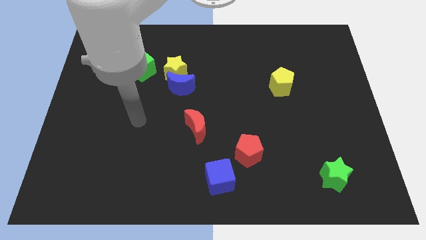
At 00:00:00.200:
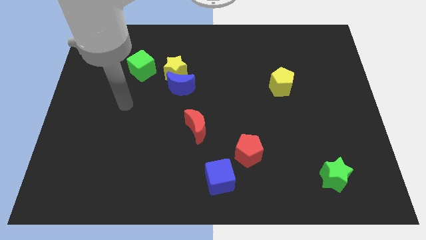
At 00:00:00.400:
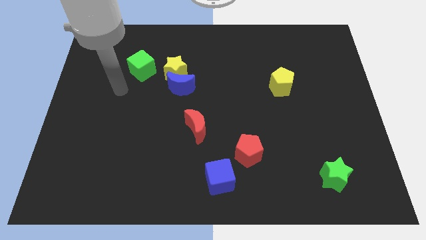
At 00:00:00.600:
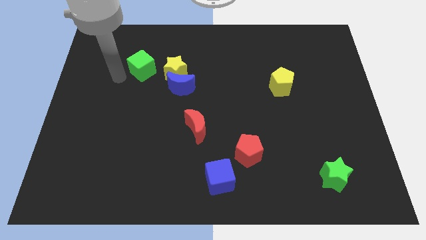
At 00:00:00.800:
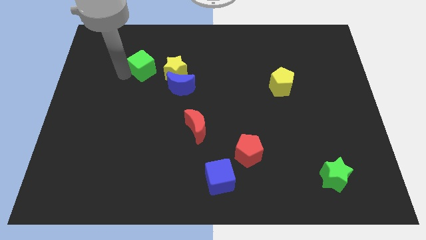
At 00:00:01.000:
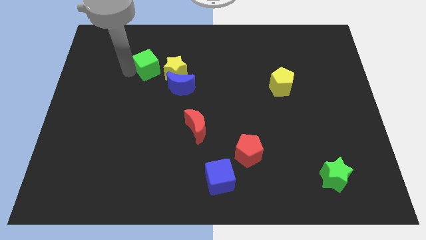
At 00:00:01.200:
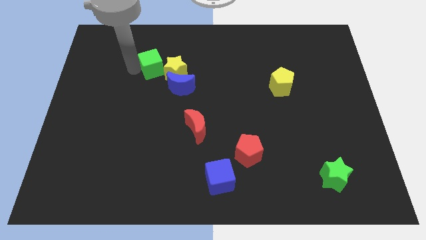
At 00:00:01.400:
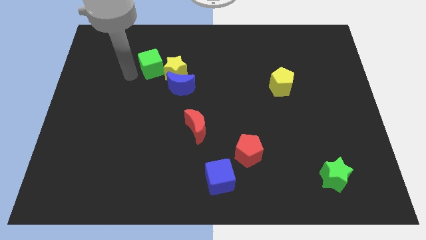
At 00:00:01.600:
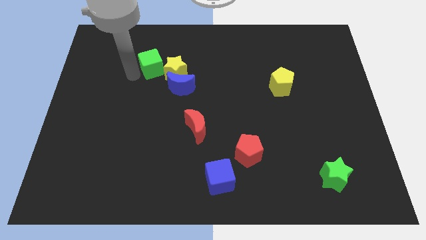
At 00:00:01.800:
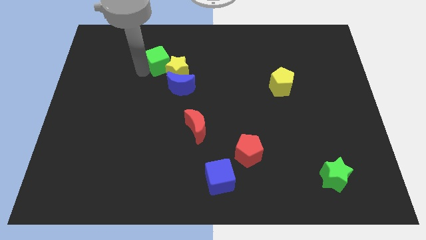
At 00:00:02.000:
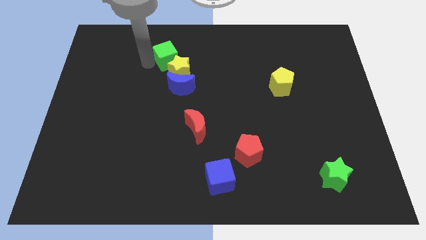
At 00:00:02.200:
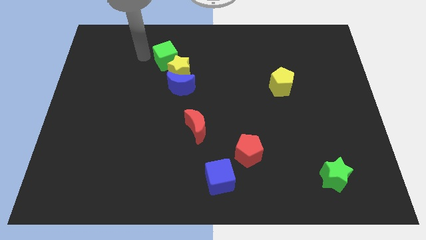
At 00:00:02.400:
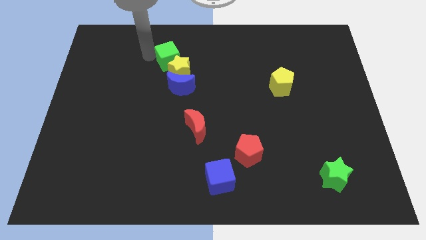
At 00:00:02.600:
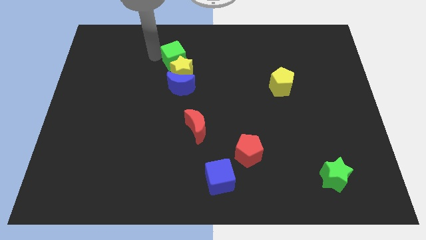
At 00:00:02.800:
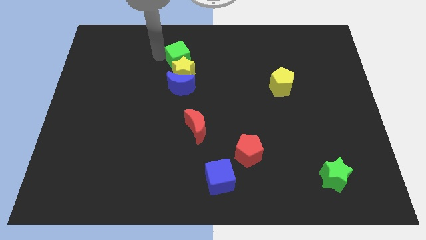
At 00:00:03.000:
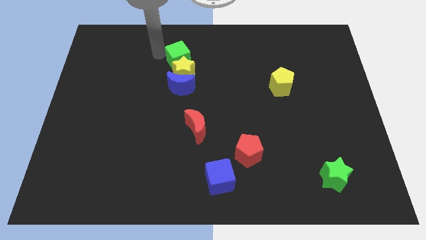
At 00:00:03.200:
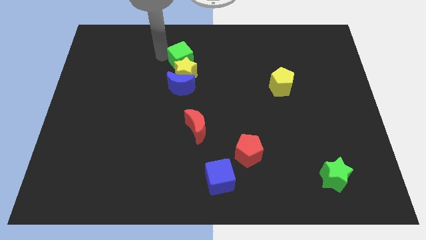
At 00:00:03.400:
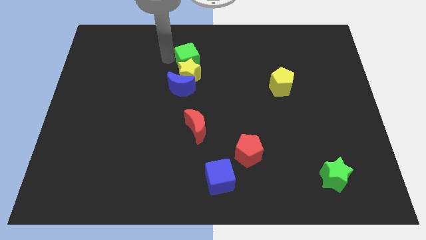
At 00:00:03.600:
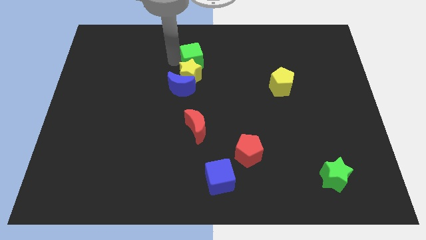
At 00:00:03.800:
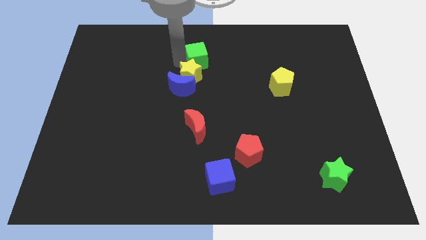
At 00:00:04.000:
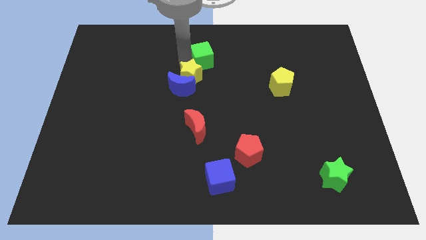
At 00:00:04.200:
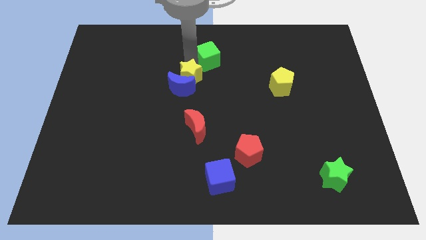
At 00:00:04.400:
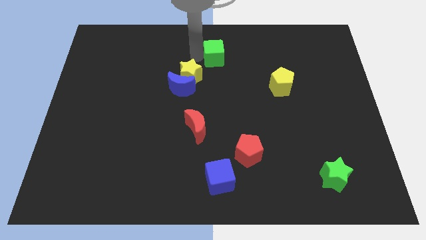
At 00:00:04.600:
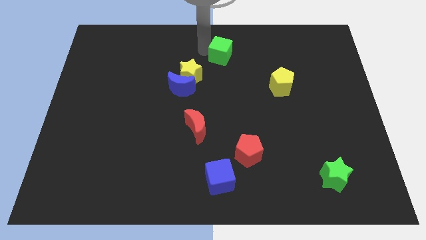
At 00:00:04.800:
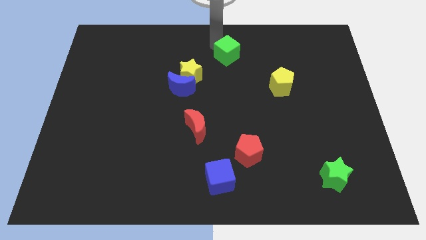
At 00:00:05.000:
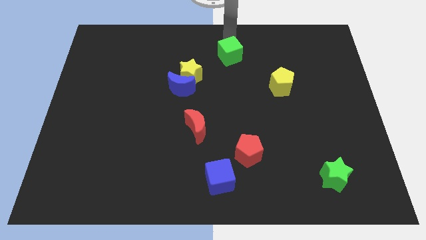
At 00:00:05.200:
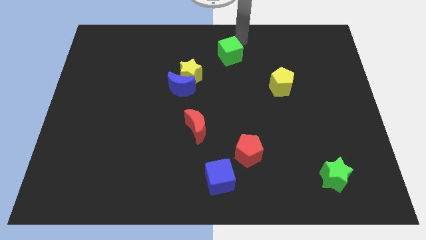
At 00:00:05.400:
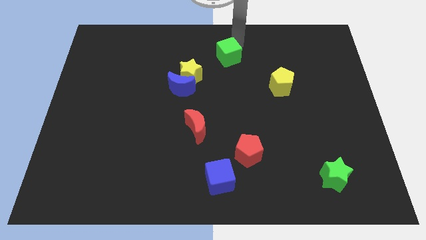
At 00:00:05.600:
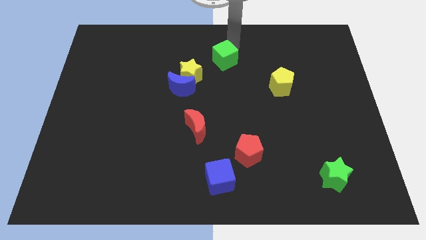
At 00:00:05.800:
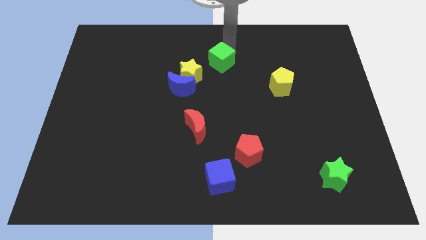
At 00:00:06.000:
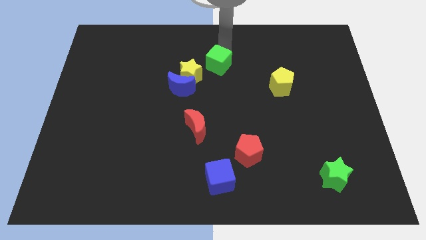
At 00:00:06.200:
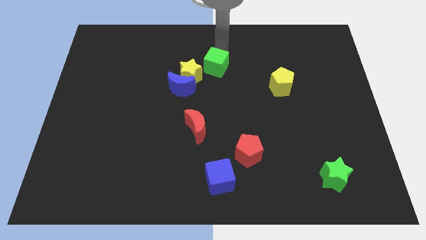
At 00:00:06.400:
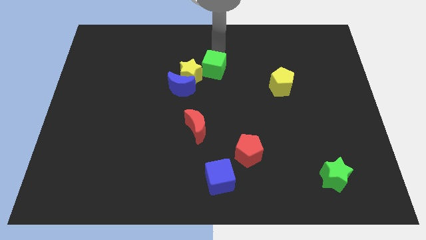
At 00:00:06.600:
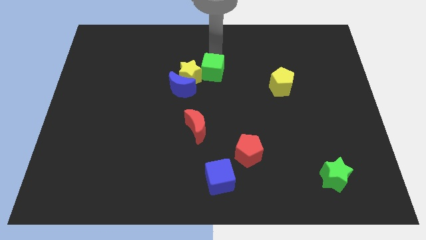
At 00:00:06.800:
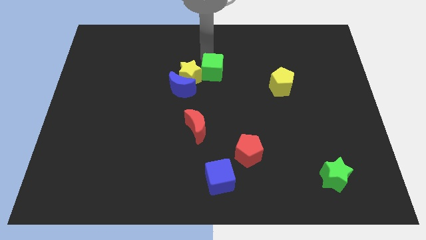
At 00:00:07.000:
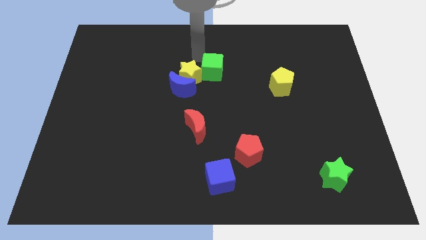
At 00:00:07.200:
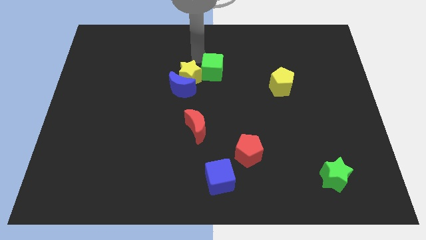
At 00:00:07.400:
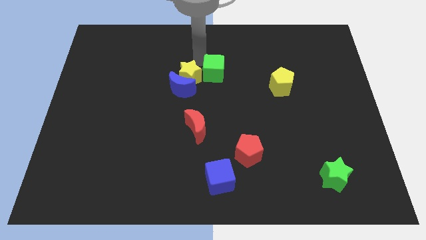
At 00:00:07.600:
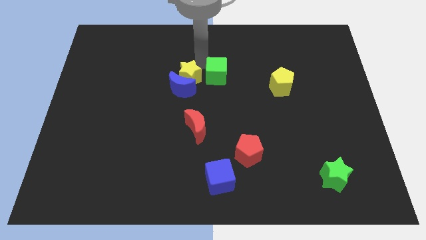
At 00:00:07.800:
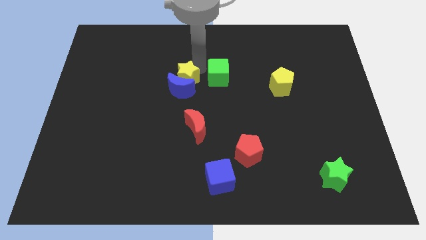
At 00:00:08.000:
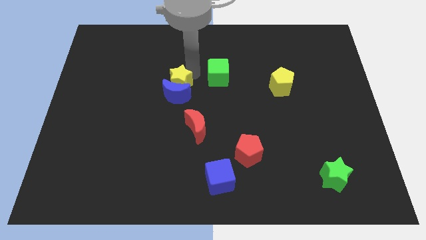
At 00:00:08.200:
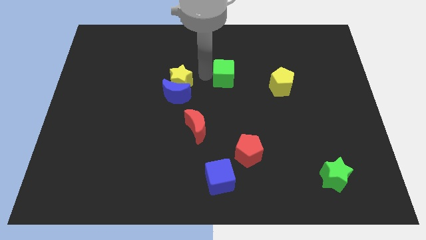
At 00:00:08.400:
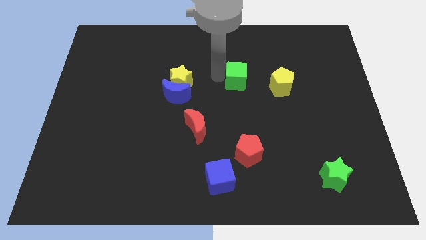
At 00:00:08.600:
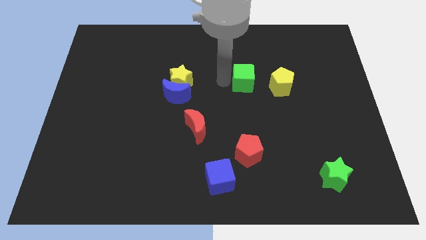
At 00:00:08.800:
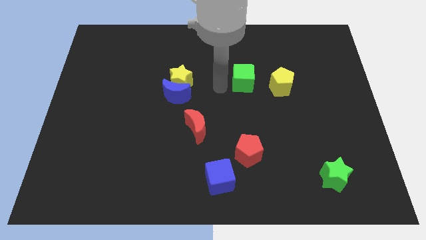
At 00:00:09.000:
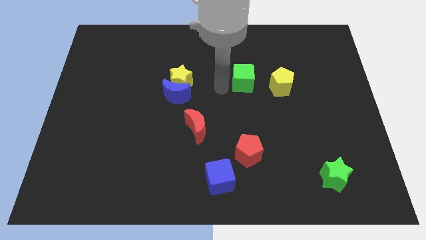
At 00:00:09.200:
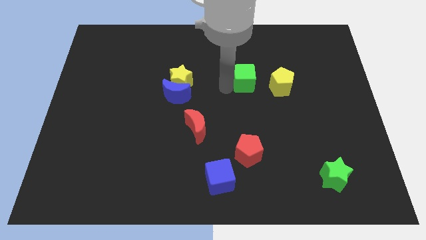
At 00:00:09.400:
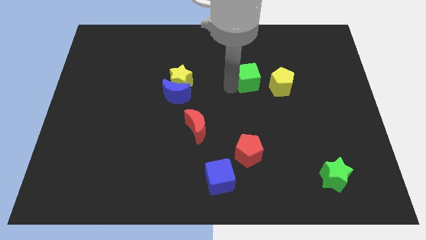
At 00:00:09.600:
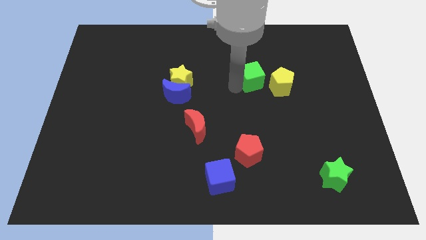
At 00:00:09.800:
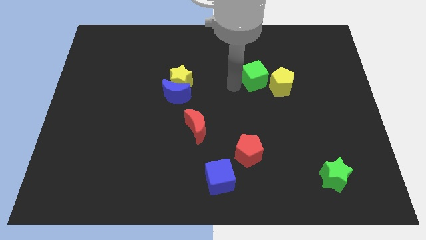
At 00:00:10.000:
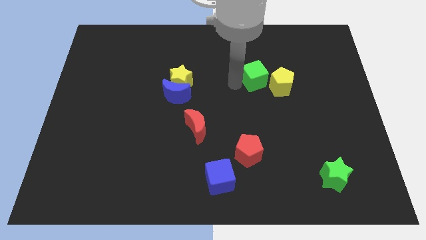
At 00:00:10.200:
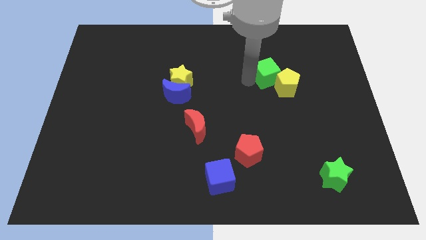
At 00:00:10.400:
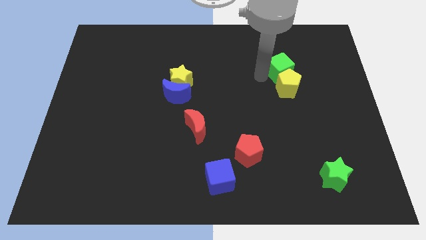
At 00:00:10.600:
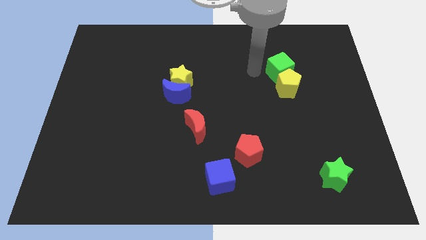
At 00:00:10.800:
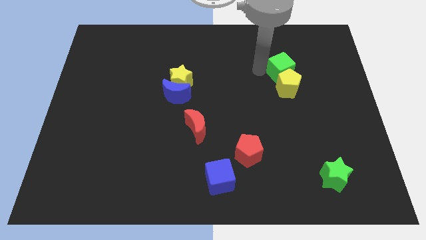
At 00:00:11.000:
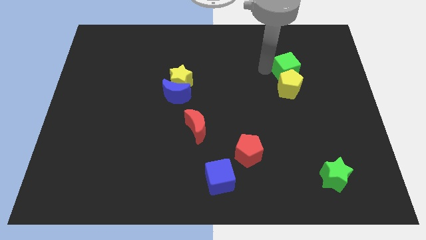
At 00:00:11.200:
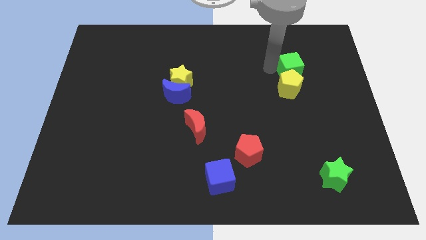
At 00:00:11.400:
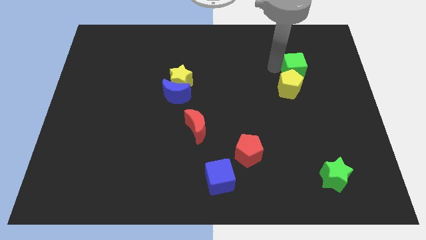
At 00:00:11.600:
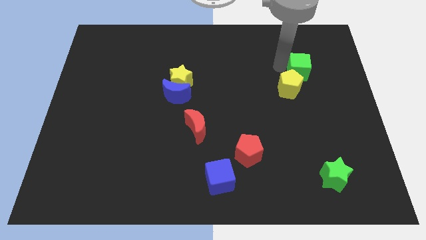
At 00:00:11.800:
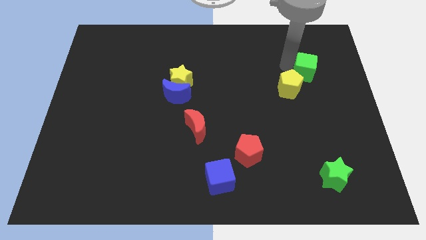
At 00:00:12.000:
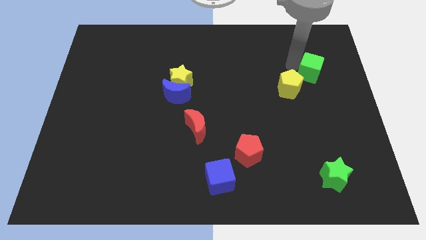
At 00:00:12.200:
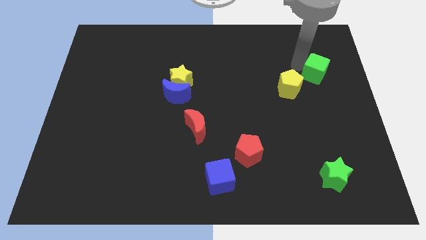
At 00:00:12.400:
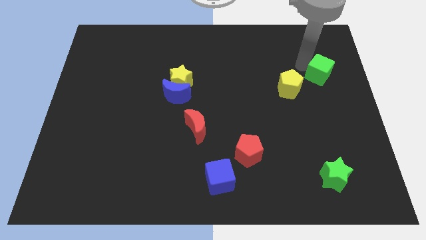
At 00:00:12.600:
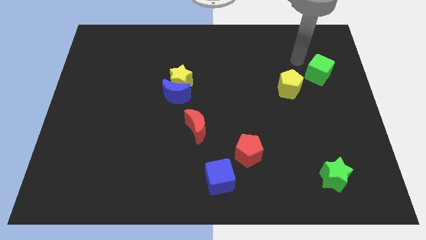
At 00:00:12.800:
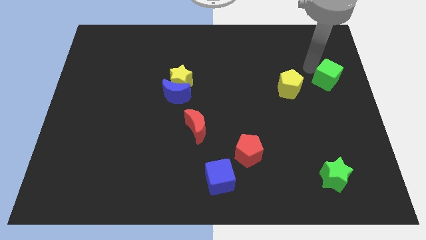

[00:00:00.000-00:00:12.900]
slide the green cube to the center right

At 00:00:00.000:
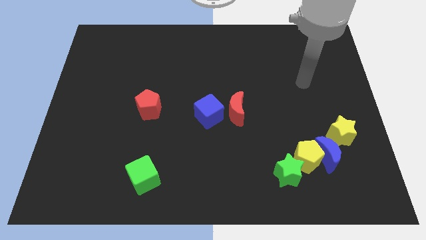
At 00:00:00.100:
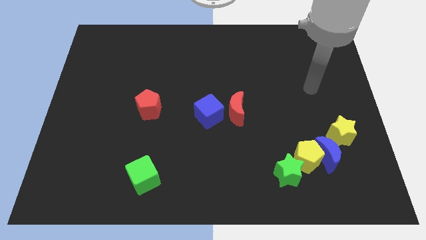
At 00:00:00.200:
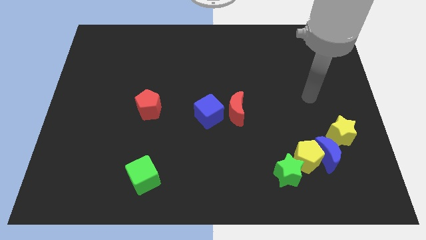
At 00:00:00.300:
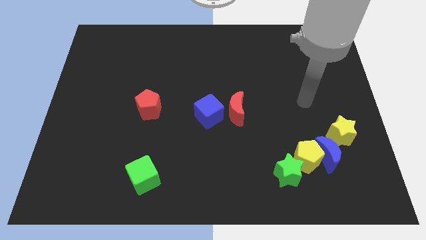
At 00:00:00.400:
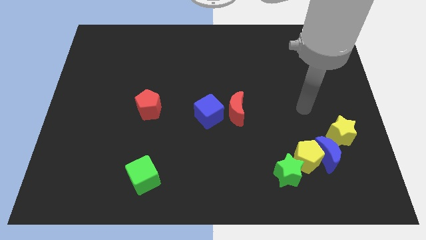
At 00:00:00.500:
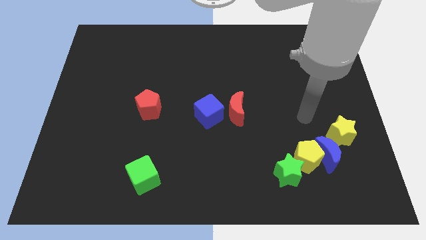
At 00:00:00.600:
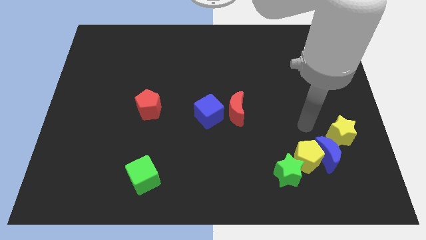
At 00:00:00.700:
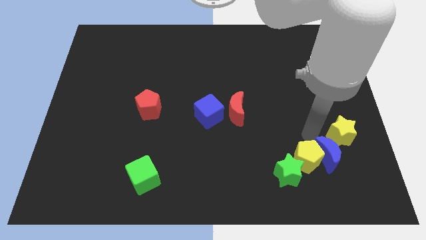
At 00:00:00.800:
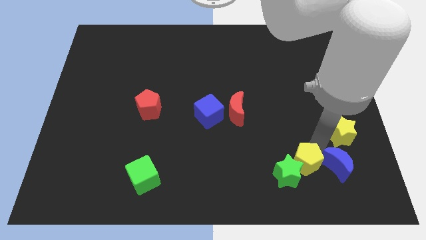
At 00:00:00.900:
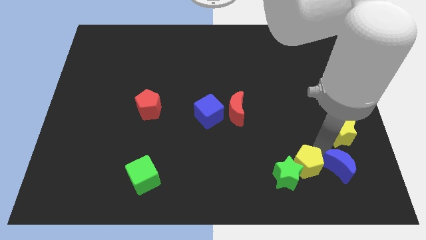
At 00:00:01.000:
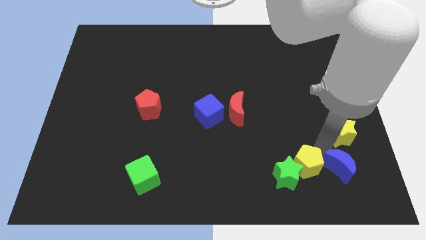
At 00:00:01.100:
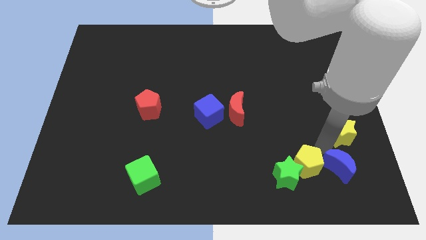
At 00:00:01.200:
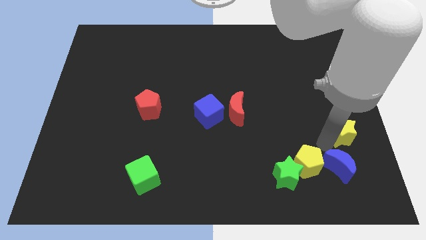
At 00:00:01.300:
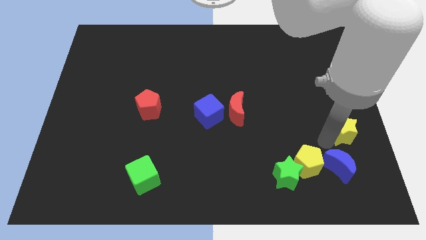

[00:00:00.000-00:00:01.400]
push the yellow star to the right side of the board
